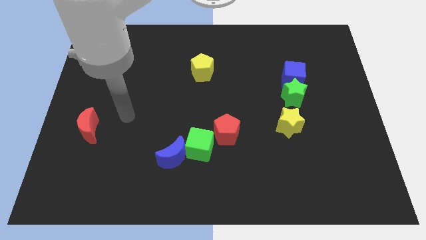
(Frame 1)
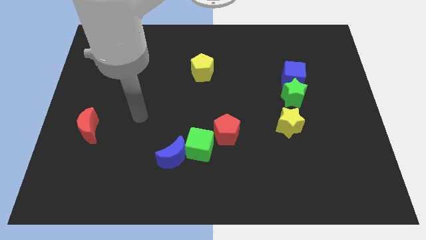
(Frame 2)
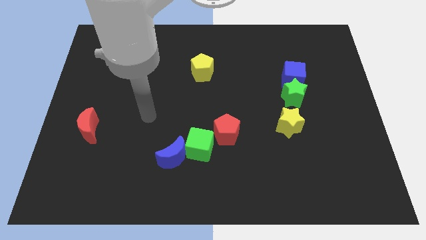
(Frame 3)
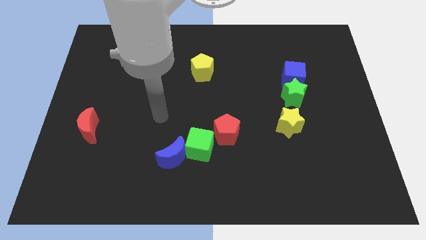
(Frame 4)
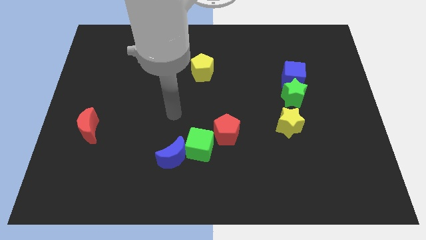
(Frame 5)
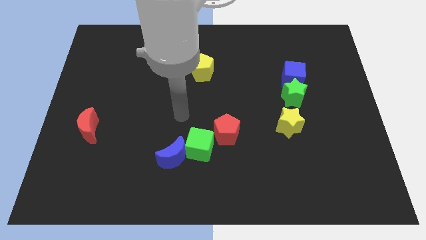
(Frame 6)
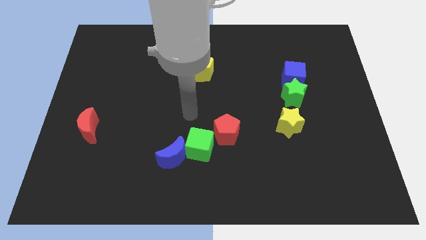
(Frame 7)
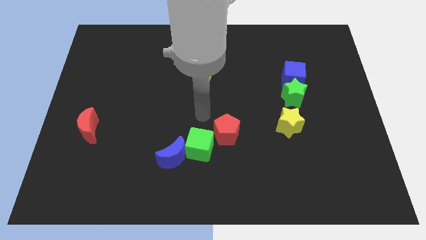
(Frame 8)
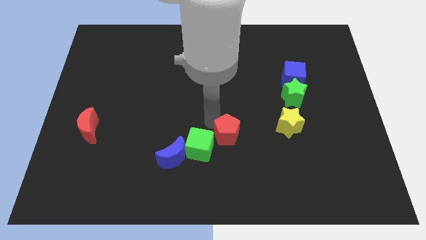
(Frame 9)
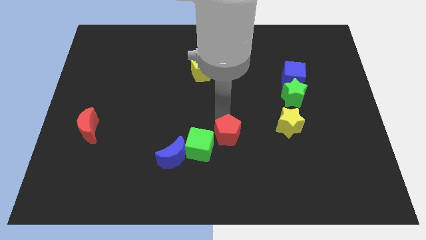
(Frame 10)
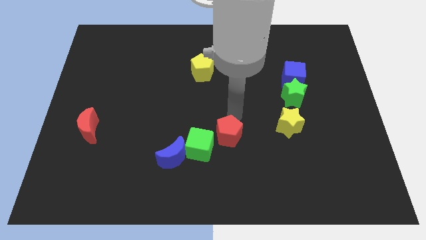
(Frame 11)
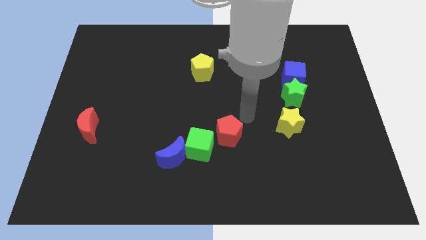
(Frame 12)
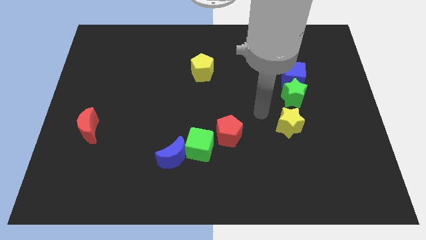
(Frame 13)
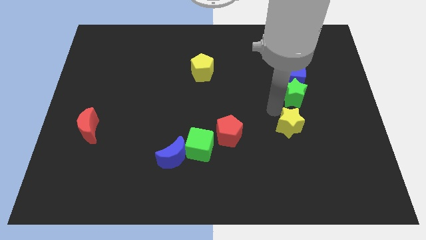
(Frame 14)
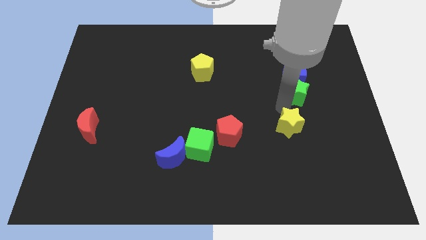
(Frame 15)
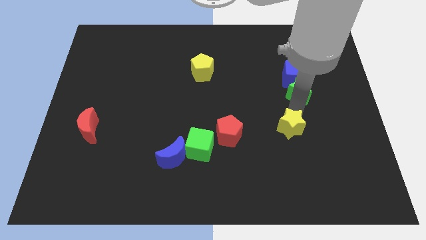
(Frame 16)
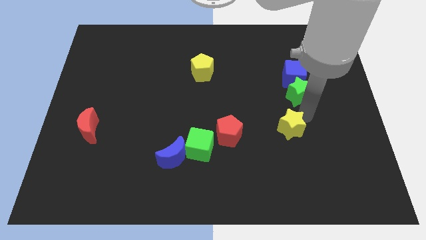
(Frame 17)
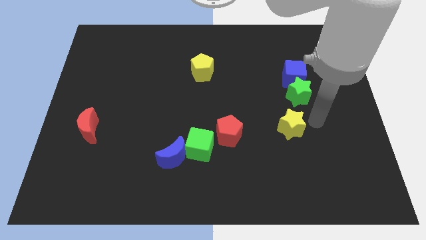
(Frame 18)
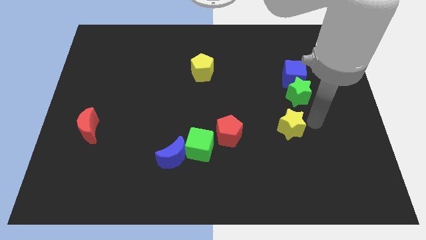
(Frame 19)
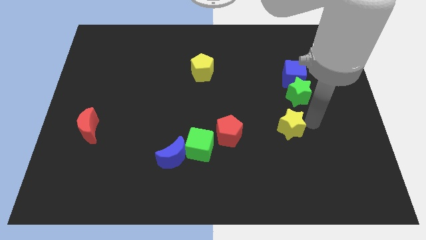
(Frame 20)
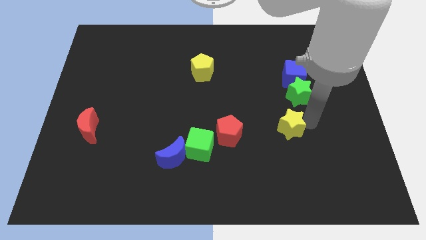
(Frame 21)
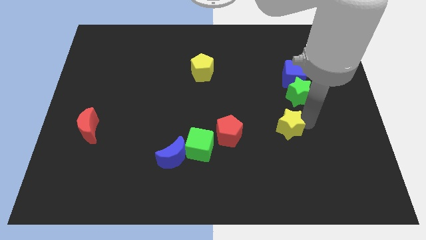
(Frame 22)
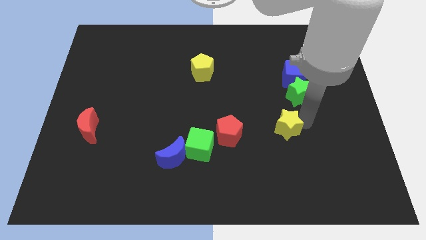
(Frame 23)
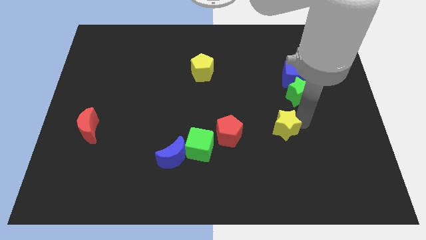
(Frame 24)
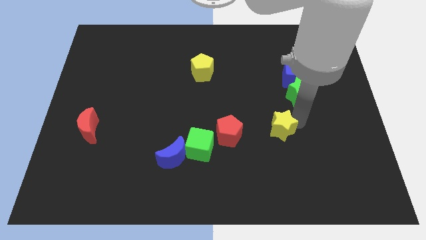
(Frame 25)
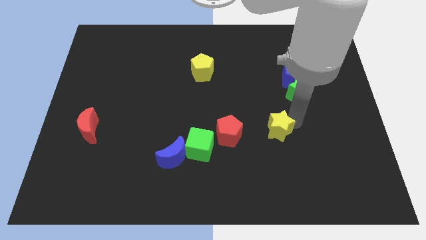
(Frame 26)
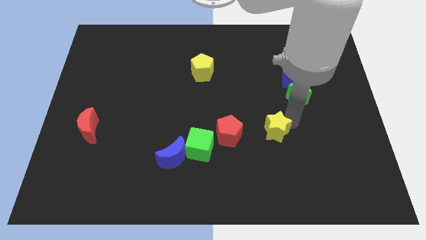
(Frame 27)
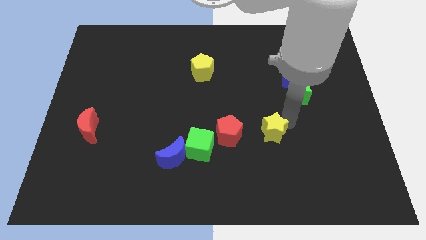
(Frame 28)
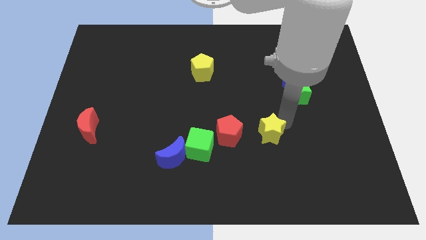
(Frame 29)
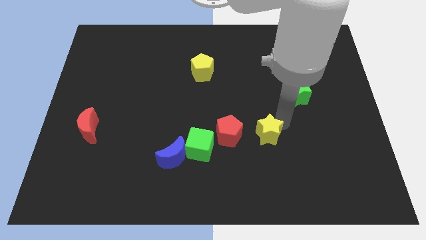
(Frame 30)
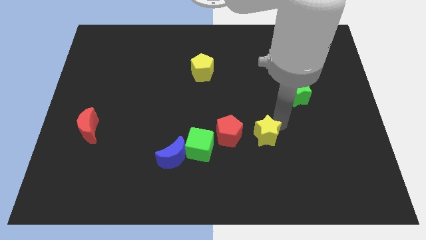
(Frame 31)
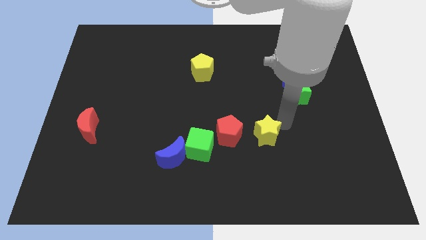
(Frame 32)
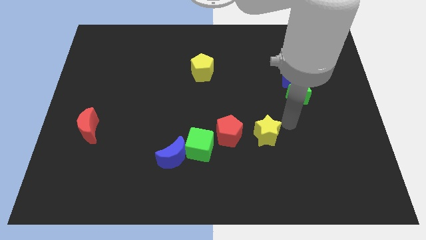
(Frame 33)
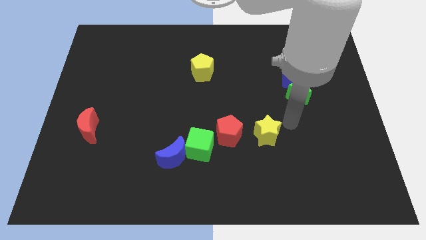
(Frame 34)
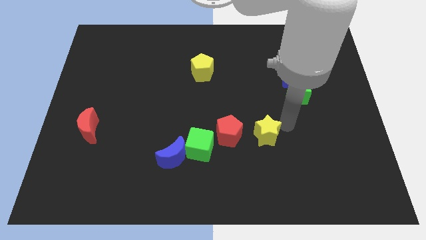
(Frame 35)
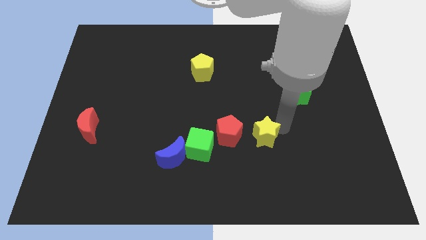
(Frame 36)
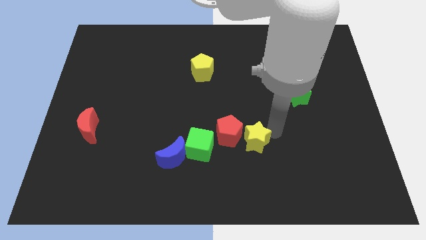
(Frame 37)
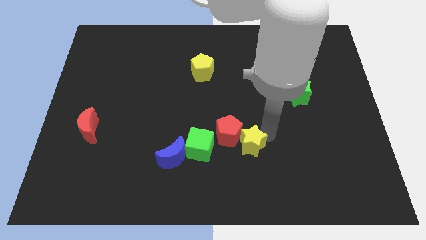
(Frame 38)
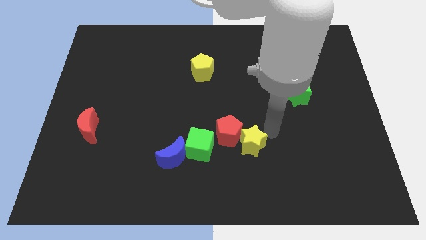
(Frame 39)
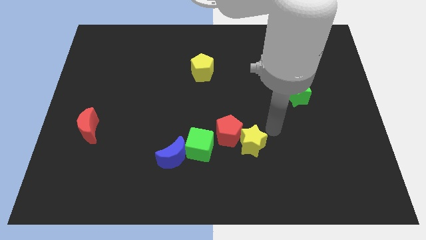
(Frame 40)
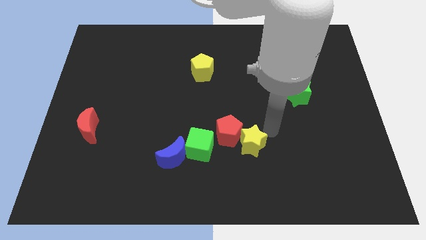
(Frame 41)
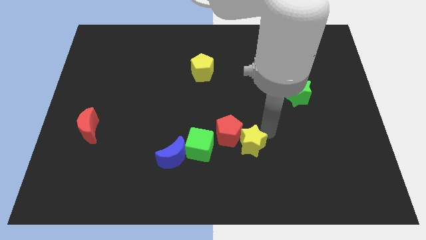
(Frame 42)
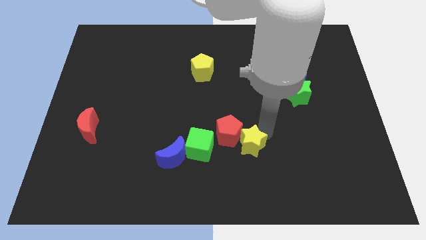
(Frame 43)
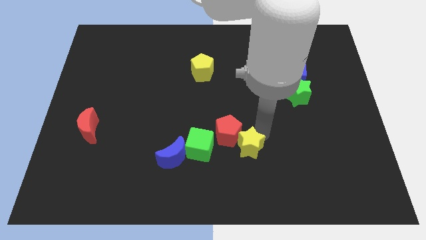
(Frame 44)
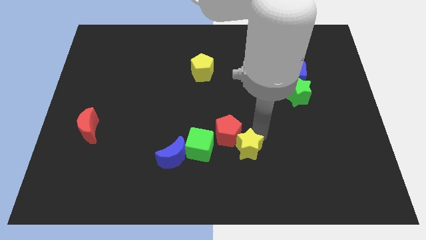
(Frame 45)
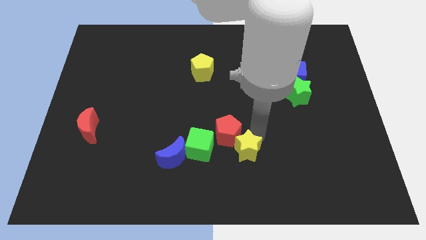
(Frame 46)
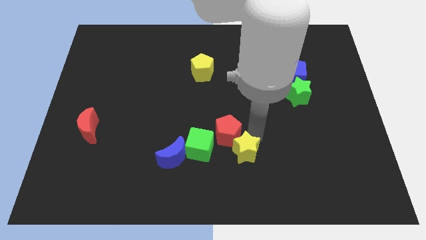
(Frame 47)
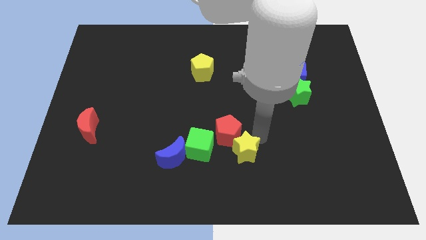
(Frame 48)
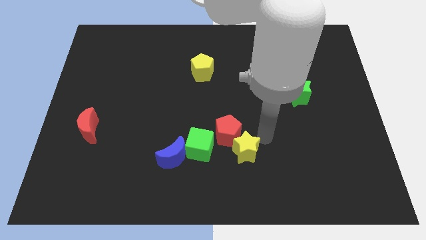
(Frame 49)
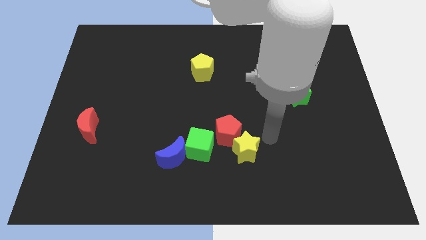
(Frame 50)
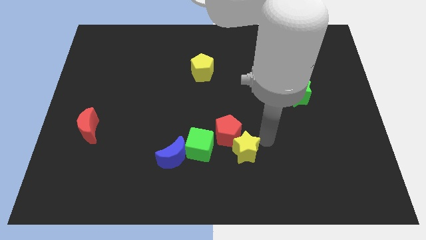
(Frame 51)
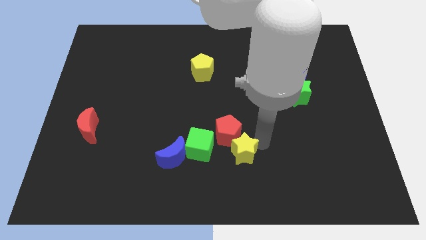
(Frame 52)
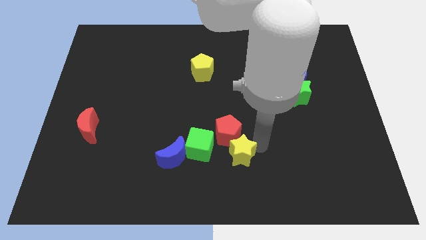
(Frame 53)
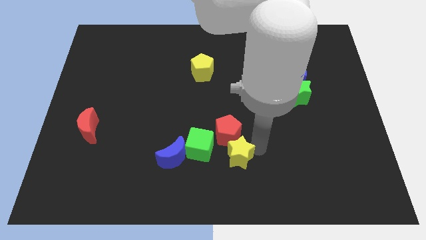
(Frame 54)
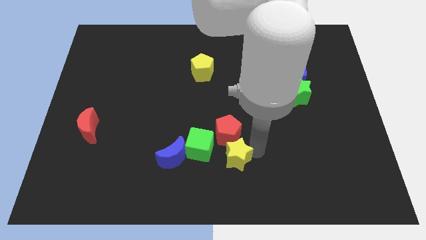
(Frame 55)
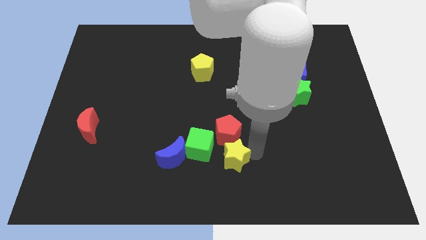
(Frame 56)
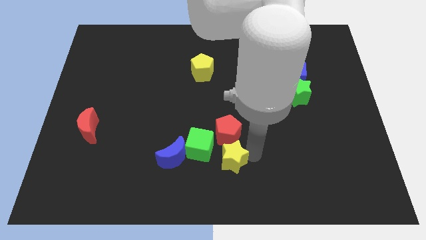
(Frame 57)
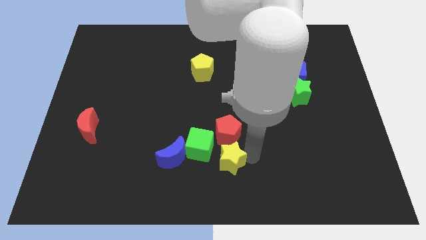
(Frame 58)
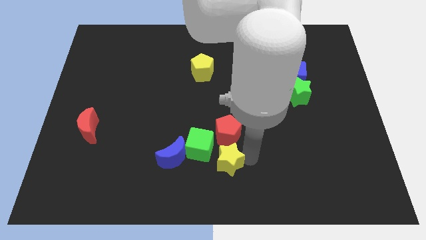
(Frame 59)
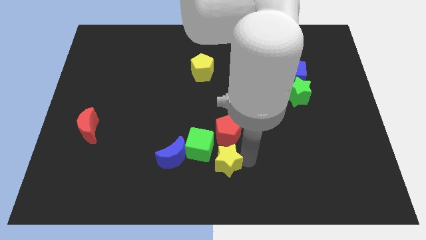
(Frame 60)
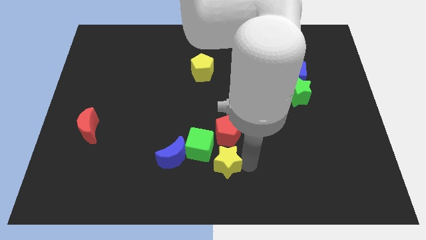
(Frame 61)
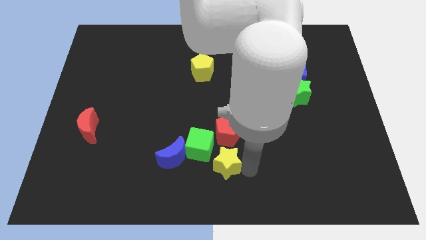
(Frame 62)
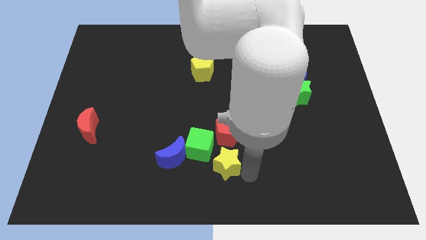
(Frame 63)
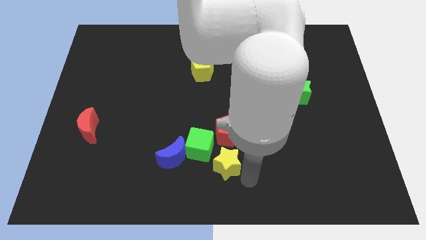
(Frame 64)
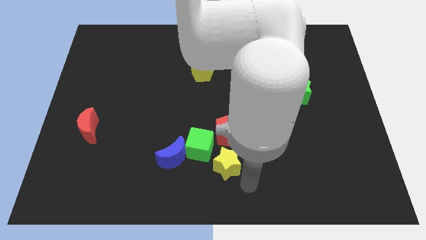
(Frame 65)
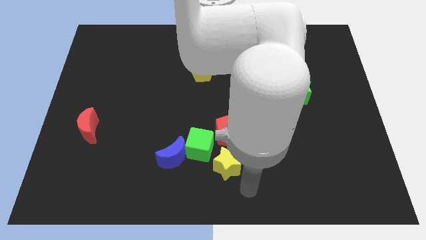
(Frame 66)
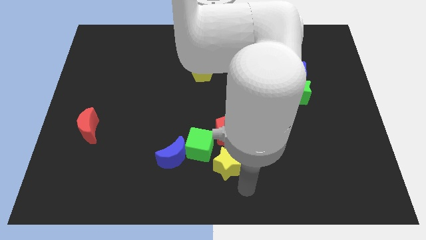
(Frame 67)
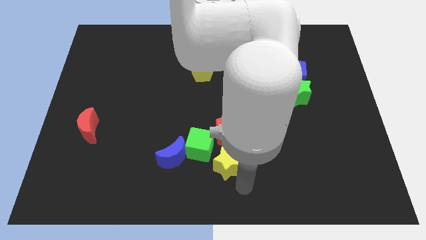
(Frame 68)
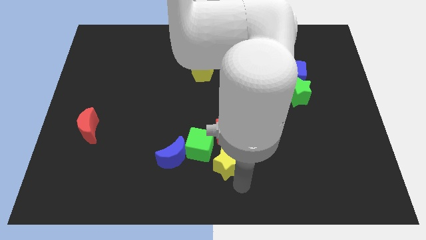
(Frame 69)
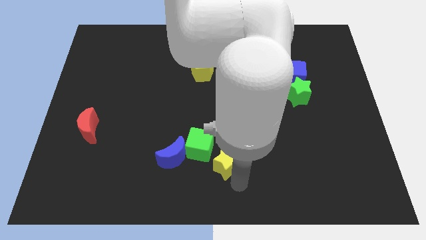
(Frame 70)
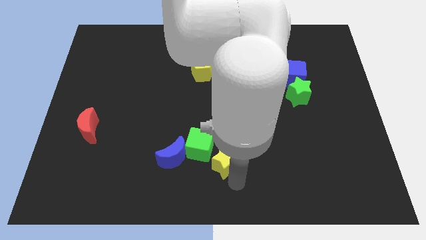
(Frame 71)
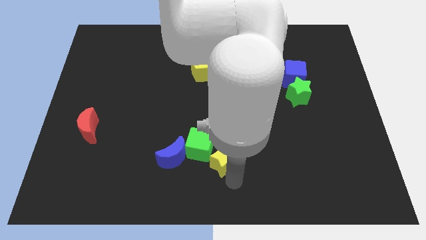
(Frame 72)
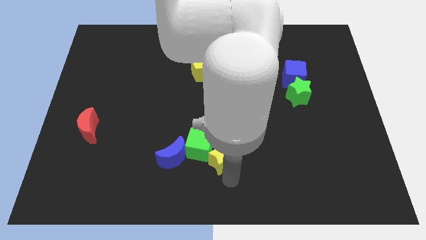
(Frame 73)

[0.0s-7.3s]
slide the yellow star towards the green cube

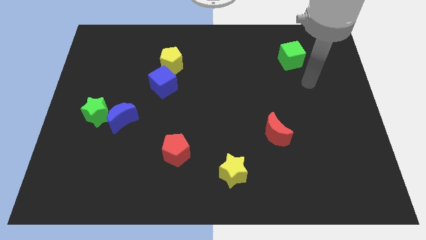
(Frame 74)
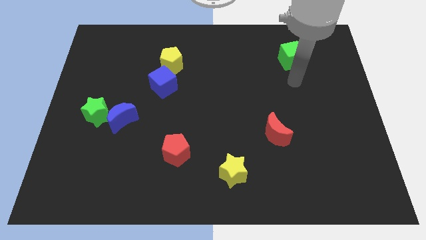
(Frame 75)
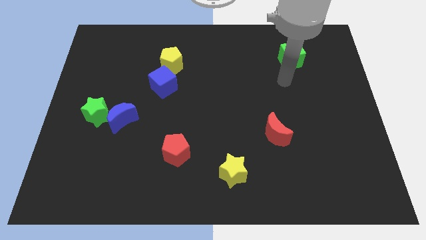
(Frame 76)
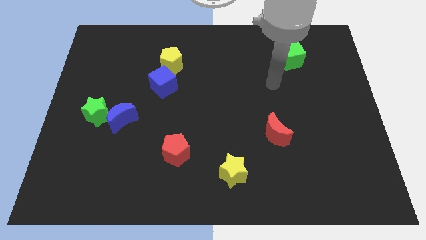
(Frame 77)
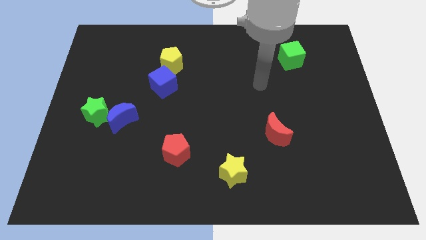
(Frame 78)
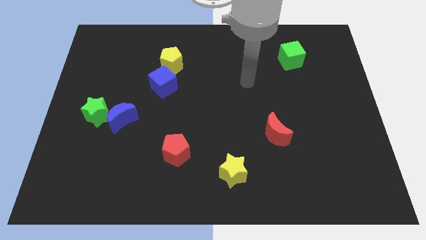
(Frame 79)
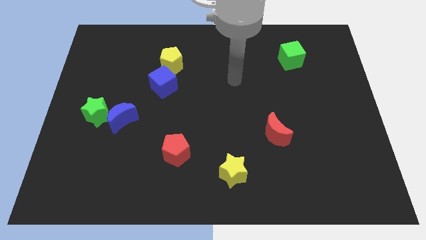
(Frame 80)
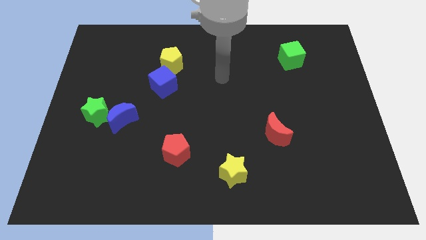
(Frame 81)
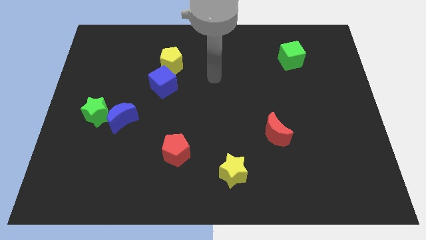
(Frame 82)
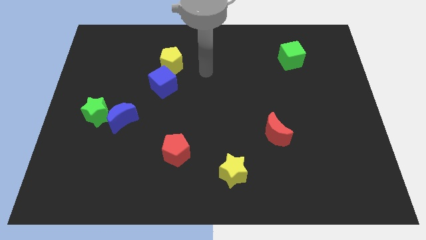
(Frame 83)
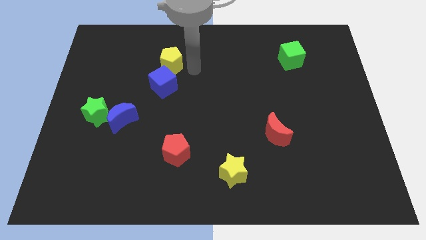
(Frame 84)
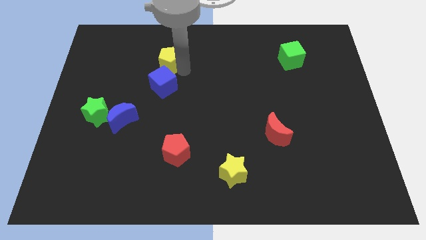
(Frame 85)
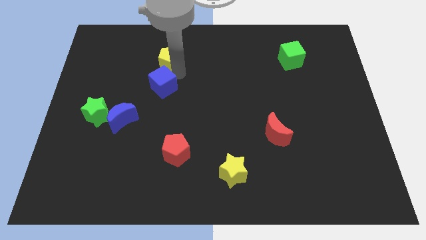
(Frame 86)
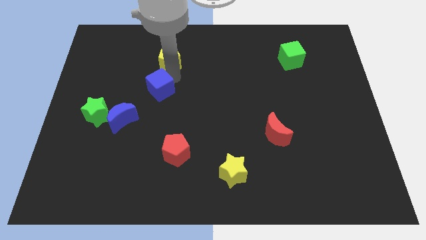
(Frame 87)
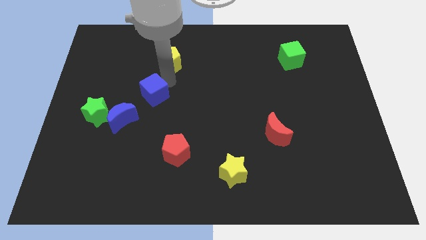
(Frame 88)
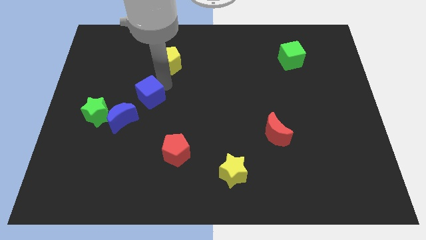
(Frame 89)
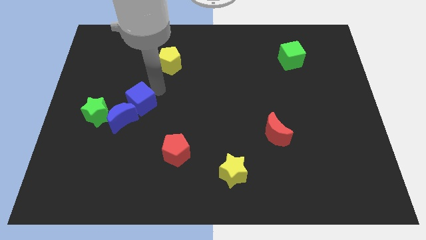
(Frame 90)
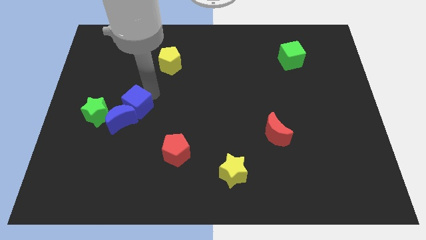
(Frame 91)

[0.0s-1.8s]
put the blue cube close to the blue moon
